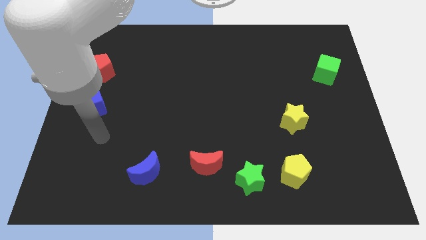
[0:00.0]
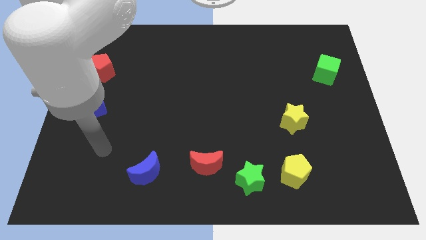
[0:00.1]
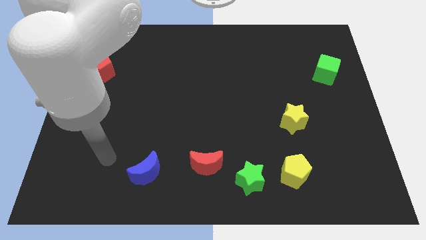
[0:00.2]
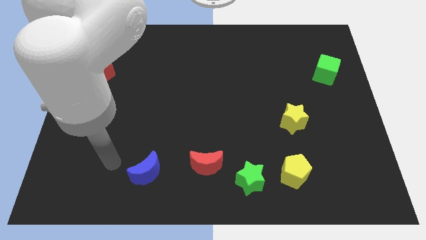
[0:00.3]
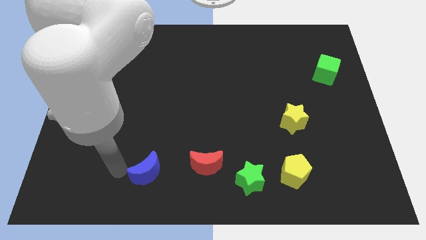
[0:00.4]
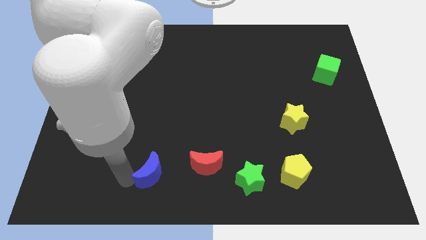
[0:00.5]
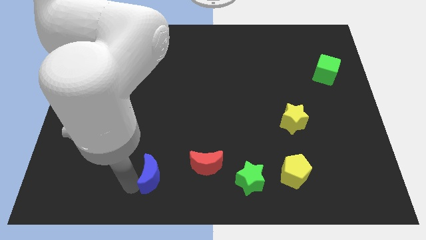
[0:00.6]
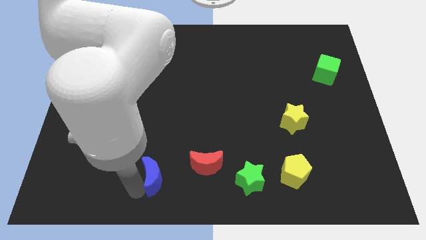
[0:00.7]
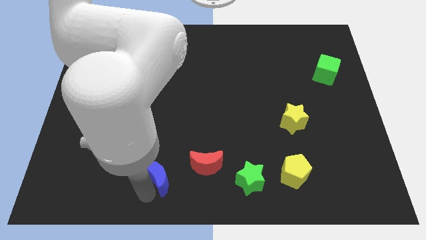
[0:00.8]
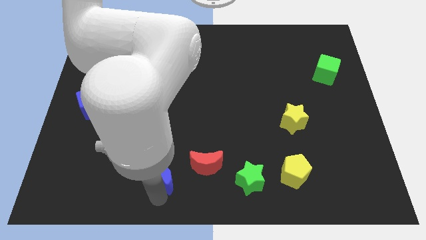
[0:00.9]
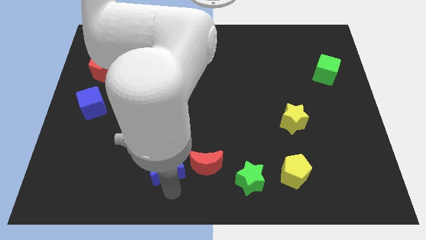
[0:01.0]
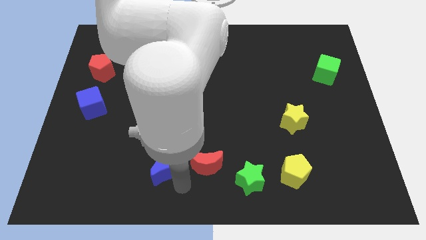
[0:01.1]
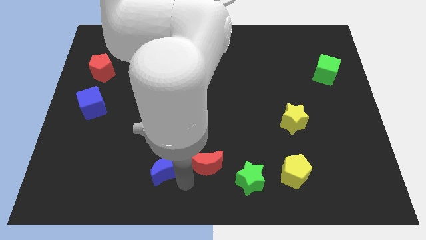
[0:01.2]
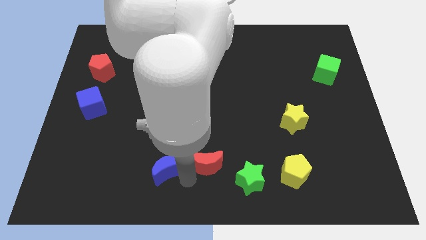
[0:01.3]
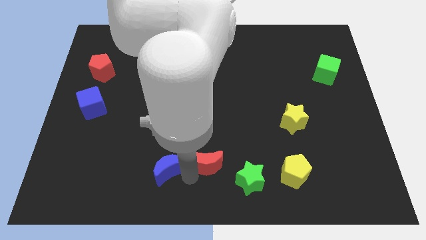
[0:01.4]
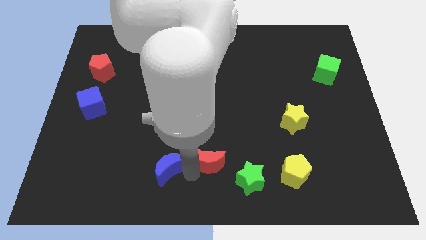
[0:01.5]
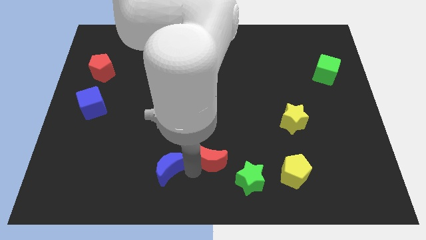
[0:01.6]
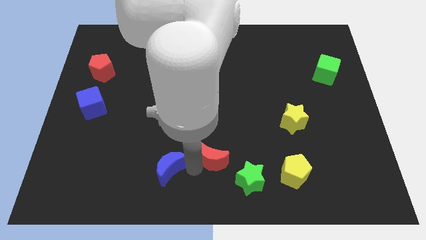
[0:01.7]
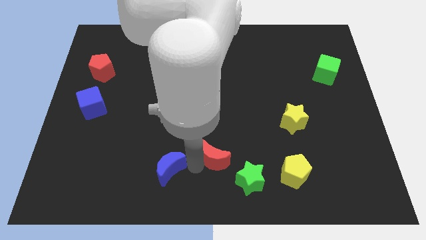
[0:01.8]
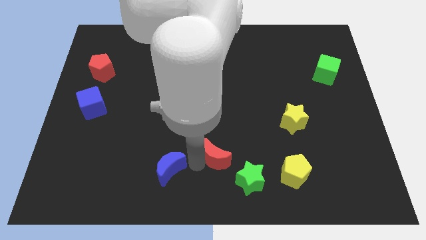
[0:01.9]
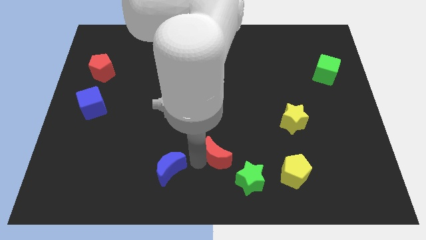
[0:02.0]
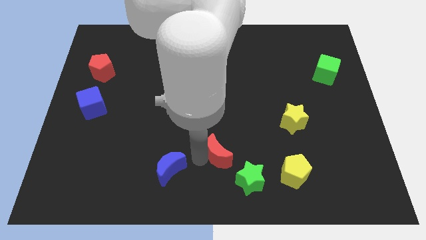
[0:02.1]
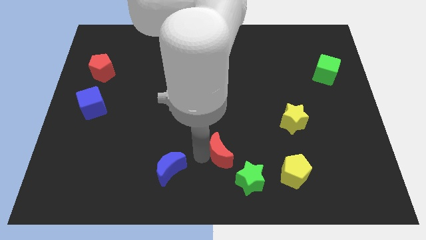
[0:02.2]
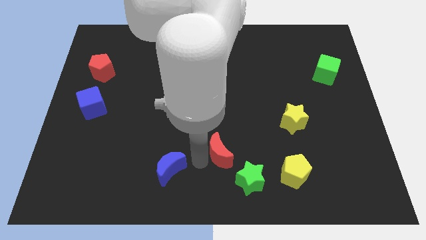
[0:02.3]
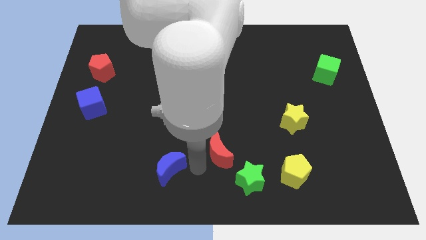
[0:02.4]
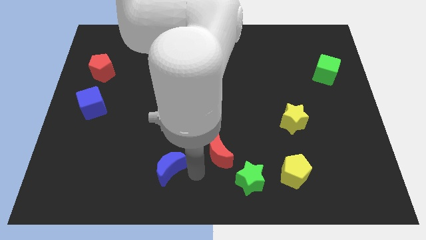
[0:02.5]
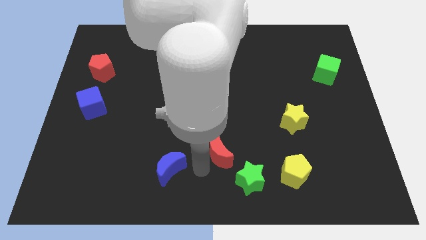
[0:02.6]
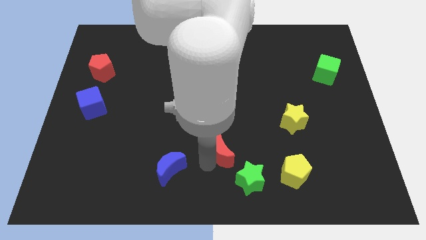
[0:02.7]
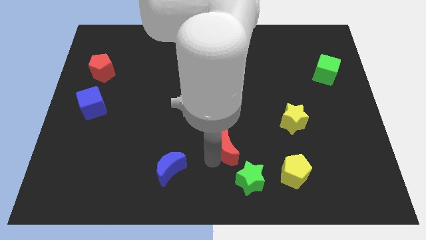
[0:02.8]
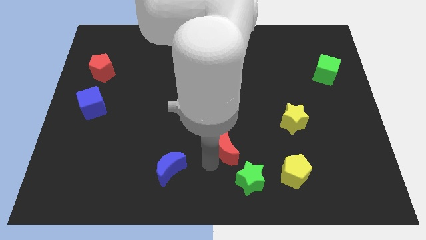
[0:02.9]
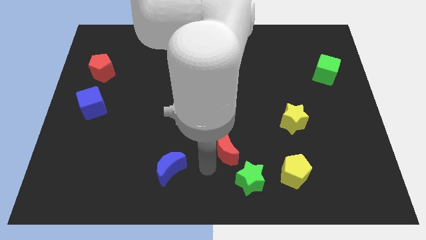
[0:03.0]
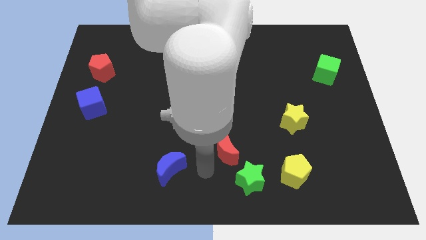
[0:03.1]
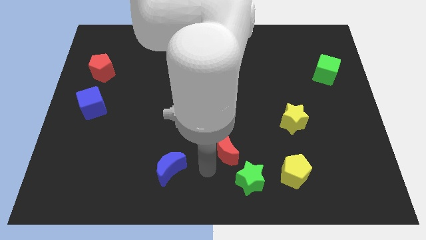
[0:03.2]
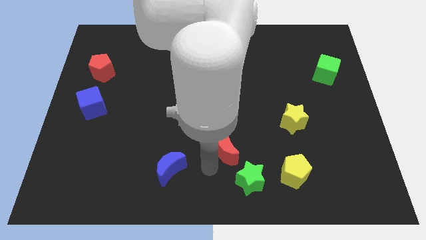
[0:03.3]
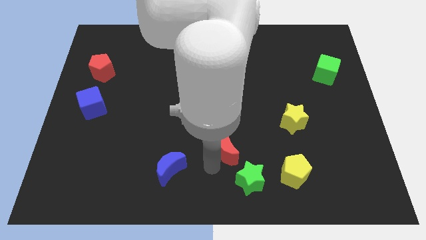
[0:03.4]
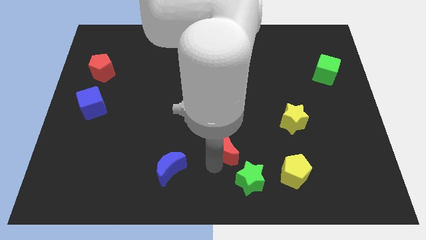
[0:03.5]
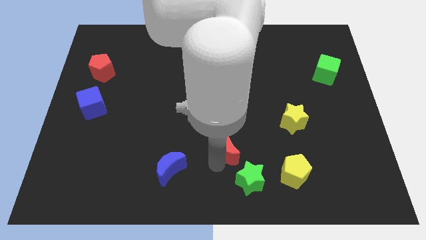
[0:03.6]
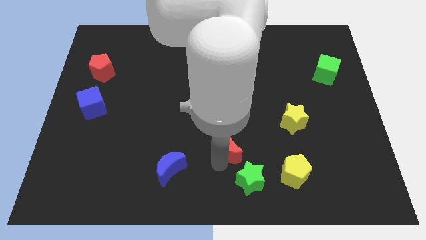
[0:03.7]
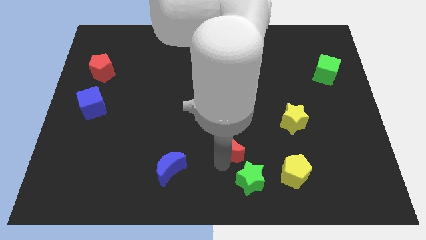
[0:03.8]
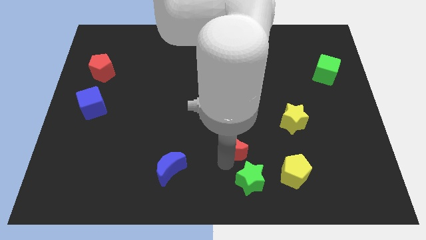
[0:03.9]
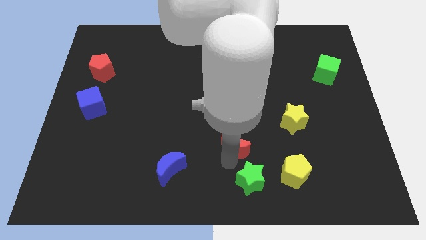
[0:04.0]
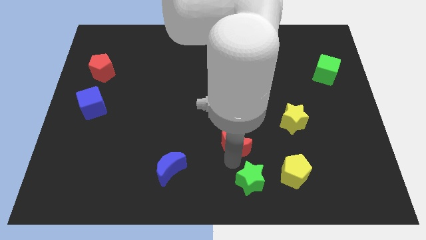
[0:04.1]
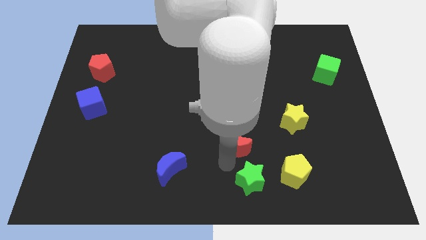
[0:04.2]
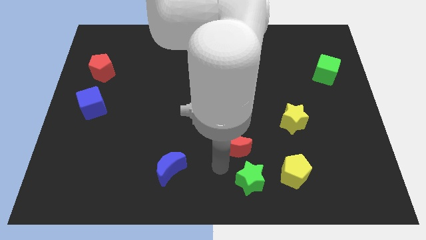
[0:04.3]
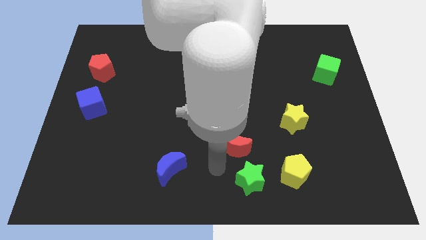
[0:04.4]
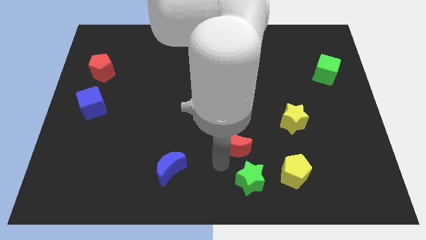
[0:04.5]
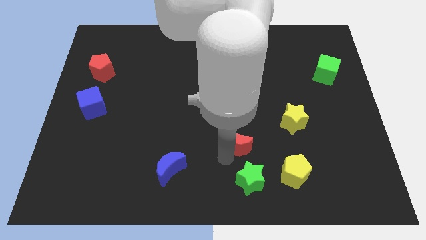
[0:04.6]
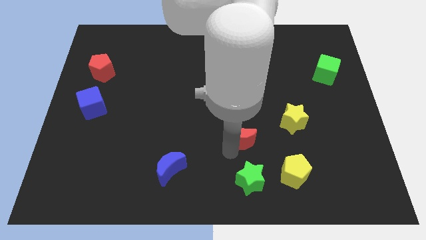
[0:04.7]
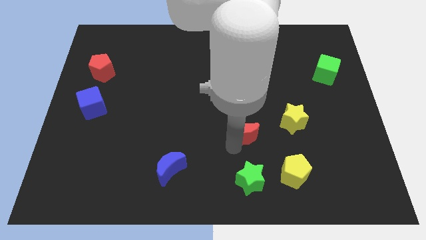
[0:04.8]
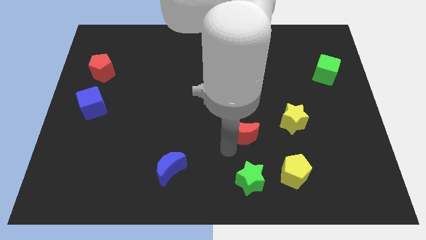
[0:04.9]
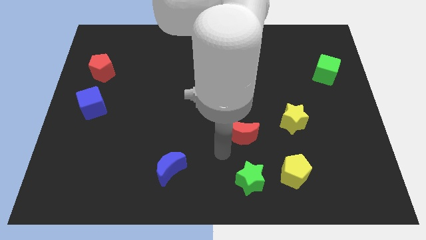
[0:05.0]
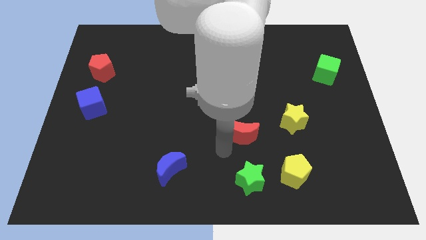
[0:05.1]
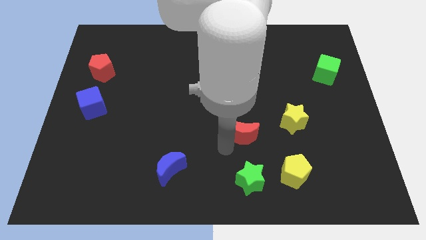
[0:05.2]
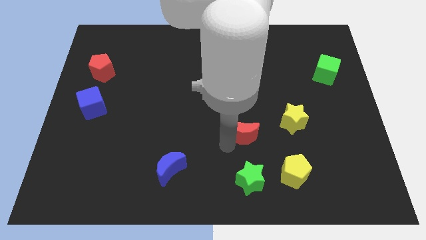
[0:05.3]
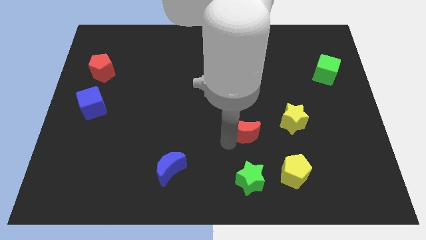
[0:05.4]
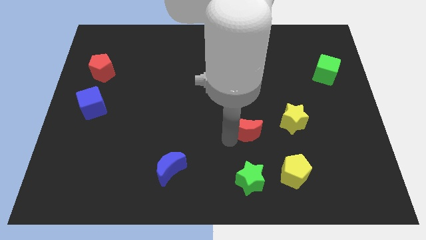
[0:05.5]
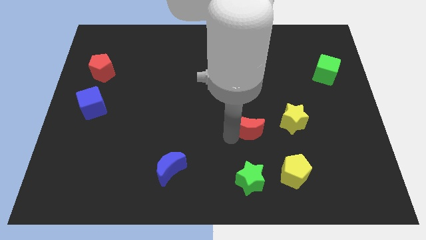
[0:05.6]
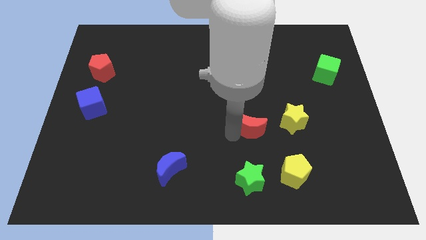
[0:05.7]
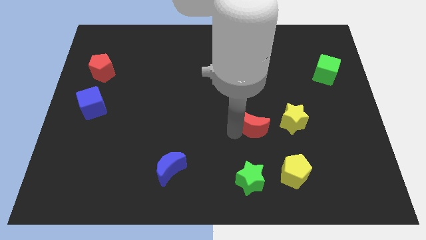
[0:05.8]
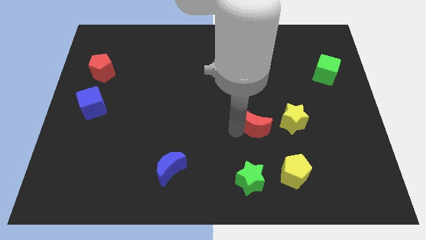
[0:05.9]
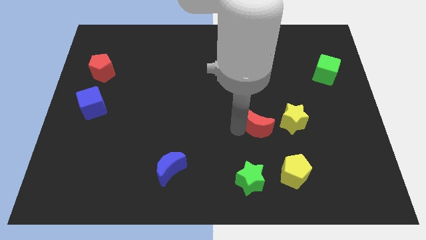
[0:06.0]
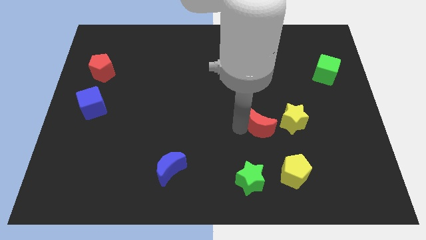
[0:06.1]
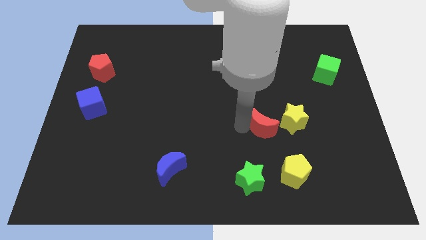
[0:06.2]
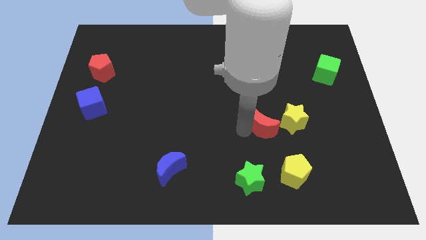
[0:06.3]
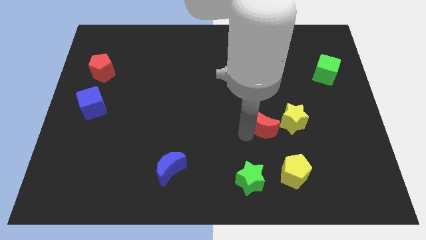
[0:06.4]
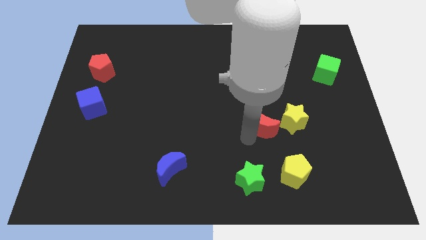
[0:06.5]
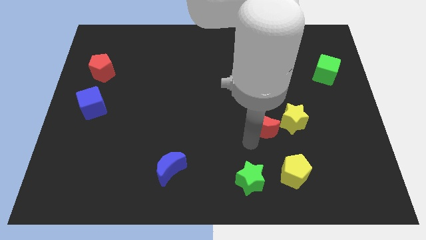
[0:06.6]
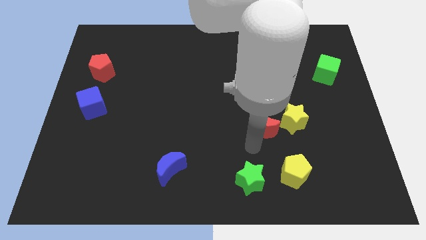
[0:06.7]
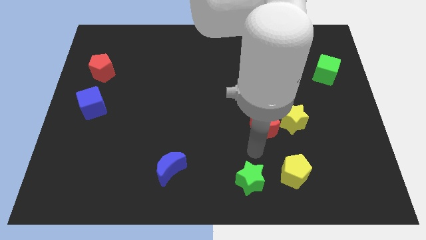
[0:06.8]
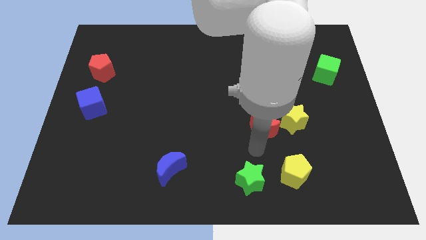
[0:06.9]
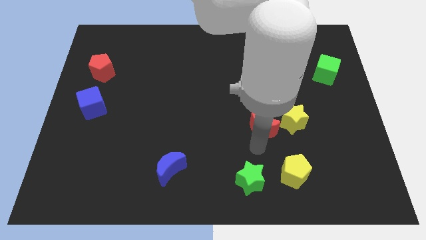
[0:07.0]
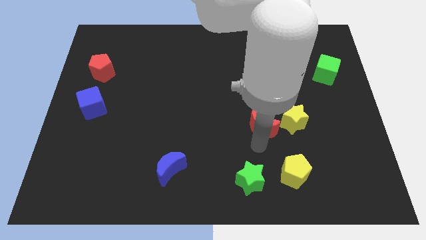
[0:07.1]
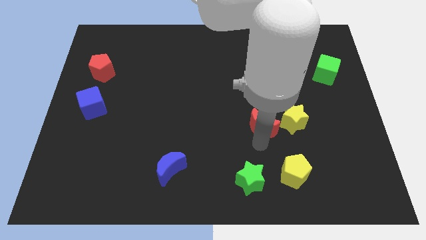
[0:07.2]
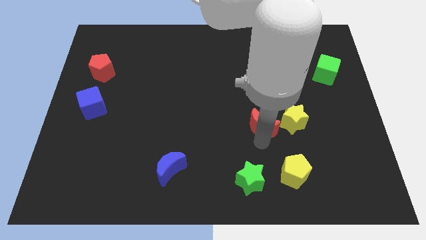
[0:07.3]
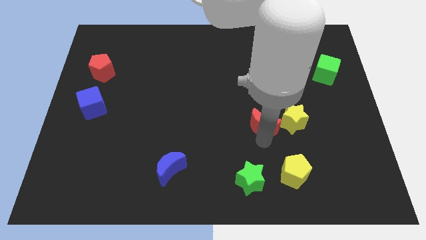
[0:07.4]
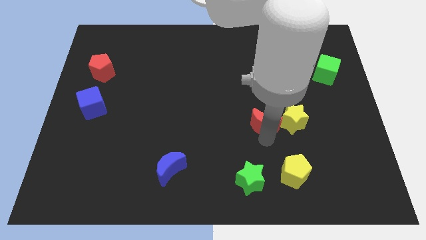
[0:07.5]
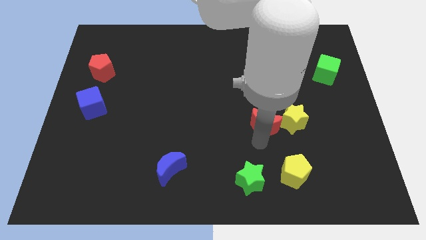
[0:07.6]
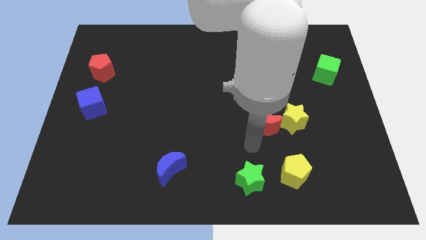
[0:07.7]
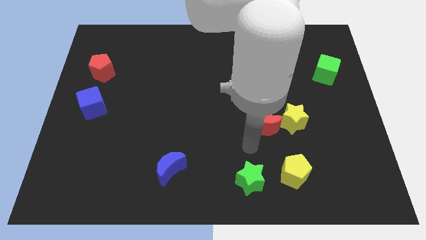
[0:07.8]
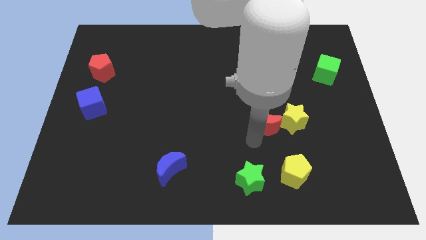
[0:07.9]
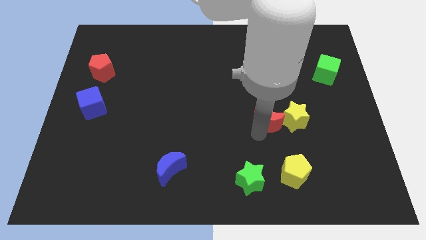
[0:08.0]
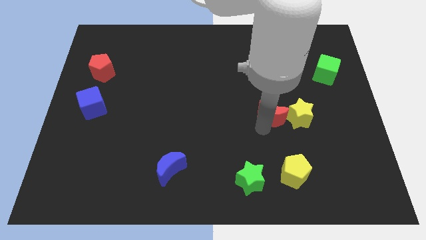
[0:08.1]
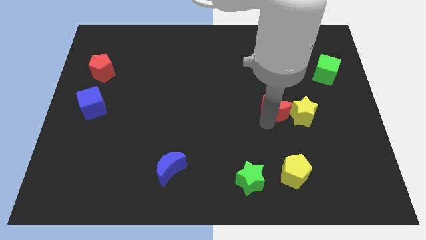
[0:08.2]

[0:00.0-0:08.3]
push the red moon up and right diagonally

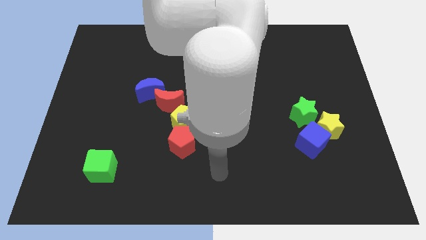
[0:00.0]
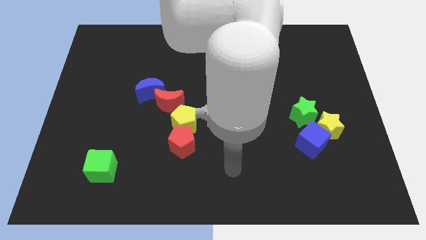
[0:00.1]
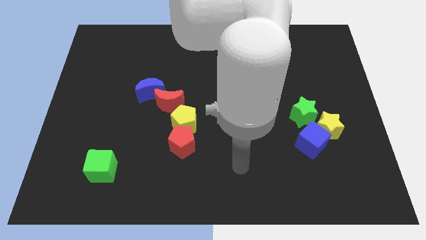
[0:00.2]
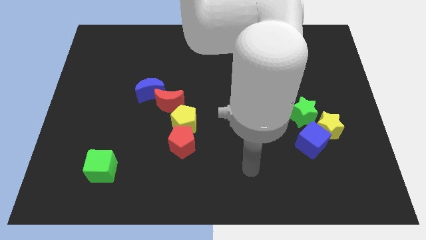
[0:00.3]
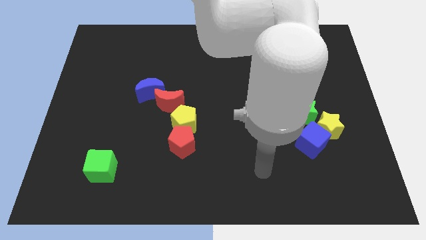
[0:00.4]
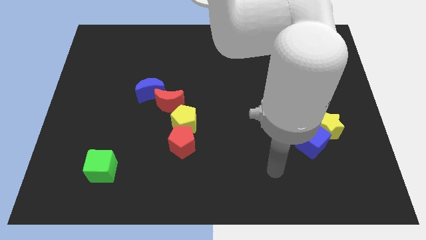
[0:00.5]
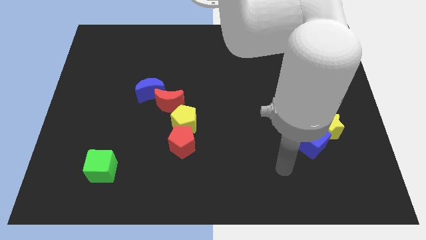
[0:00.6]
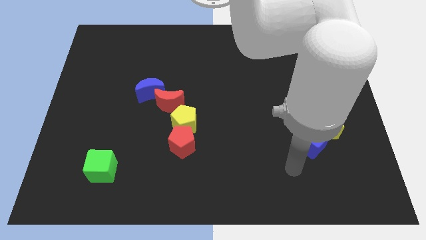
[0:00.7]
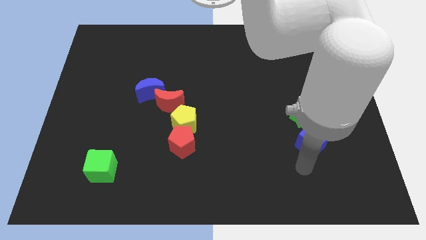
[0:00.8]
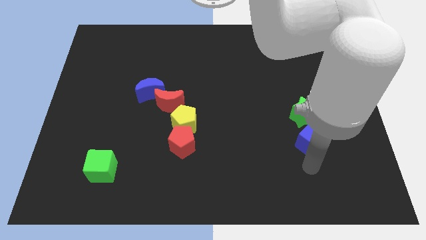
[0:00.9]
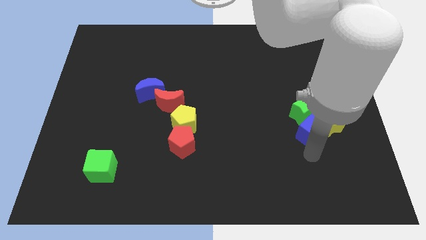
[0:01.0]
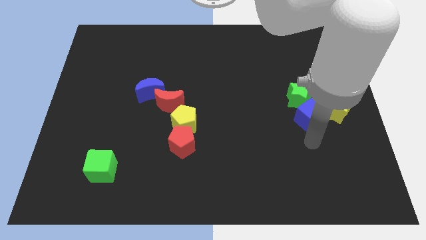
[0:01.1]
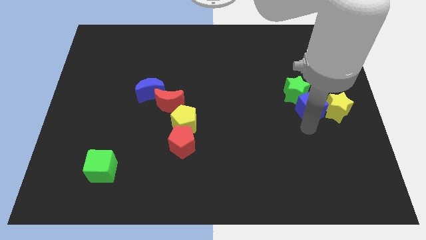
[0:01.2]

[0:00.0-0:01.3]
slightly push the green star up
